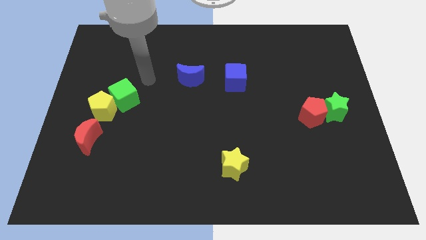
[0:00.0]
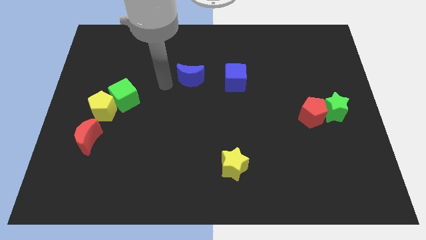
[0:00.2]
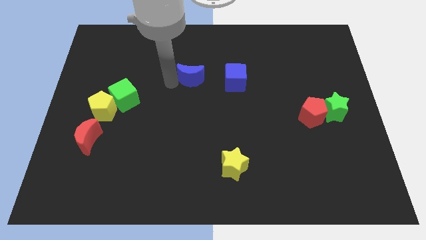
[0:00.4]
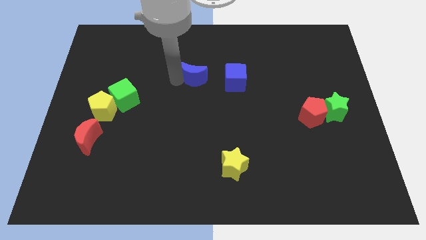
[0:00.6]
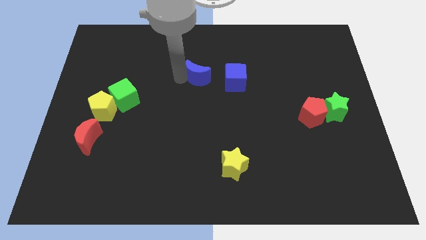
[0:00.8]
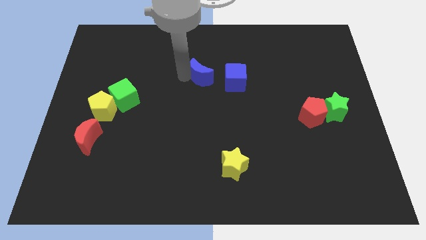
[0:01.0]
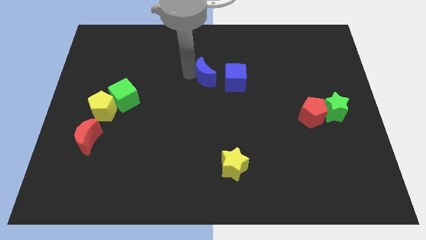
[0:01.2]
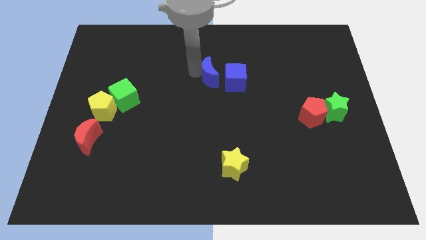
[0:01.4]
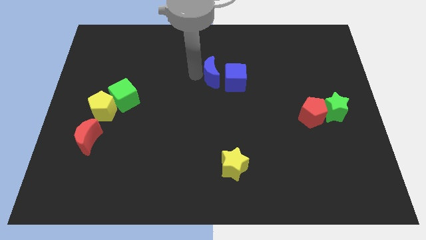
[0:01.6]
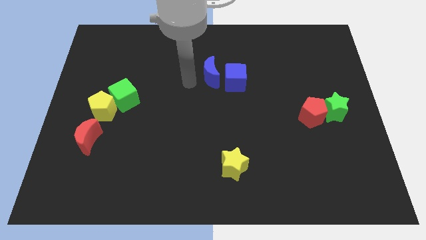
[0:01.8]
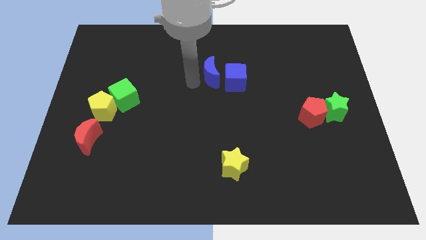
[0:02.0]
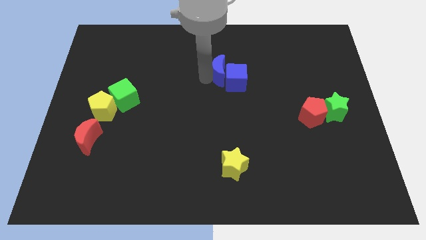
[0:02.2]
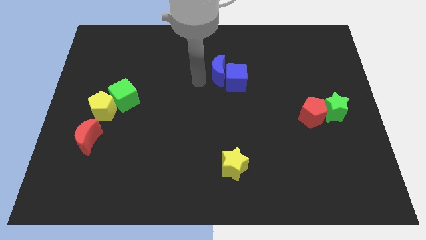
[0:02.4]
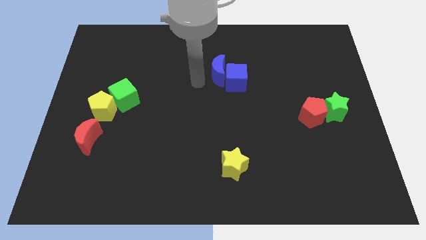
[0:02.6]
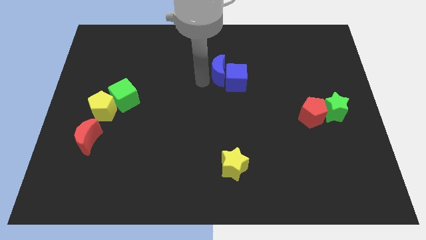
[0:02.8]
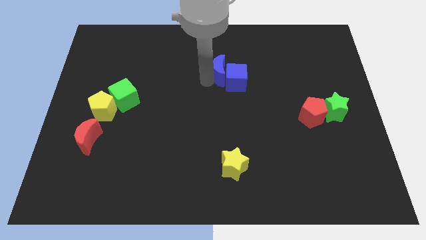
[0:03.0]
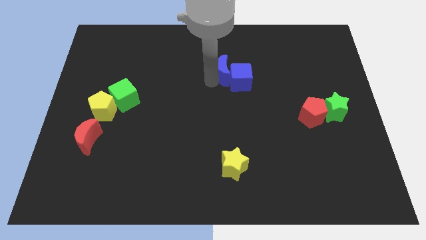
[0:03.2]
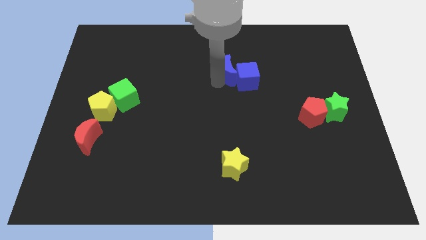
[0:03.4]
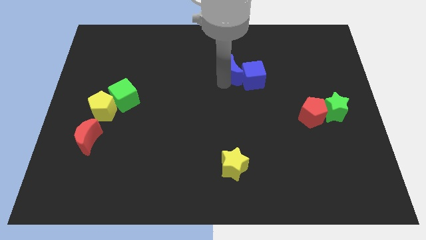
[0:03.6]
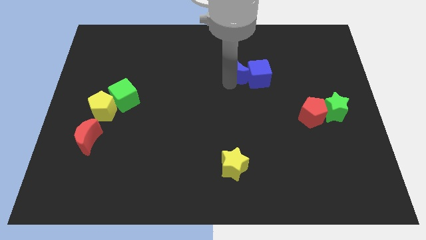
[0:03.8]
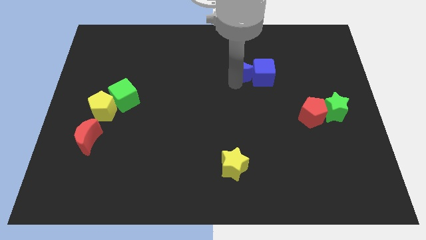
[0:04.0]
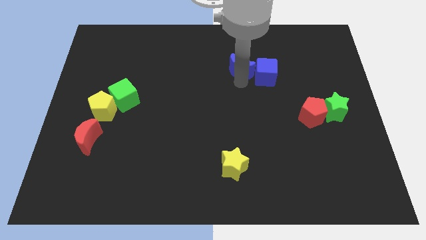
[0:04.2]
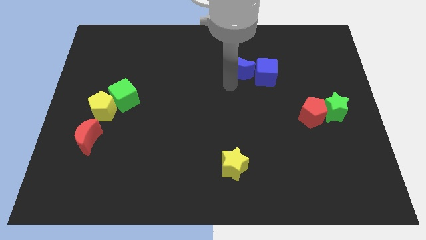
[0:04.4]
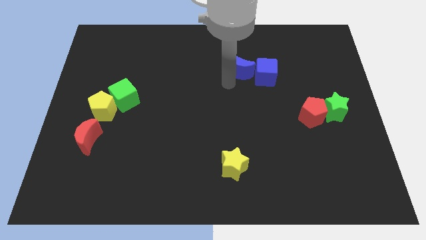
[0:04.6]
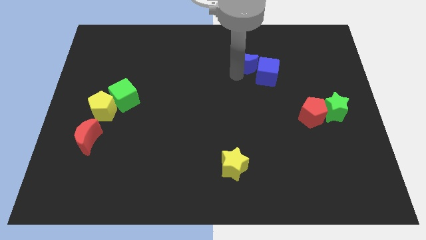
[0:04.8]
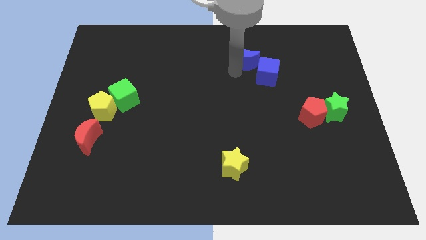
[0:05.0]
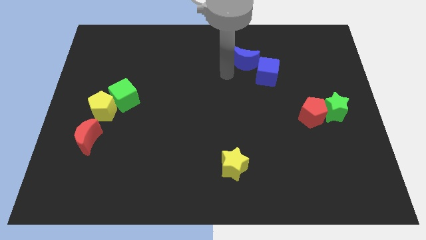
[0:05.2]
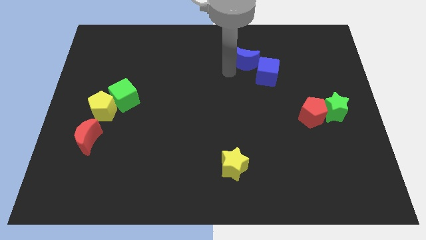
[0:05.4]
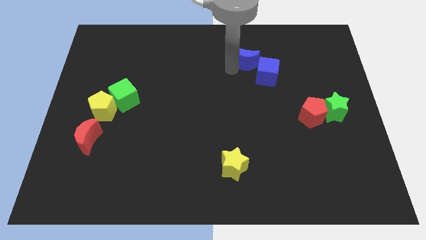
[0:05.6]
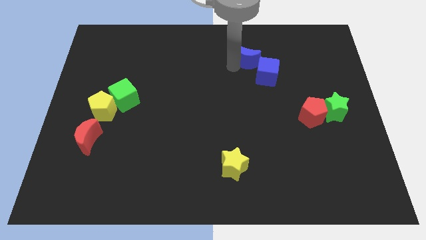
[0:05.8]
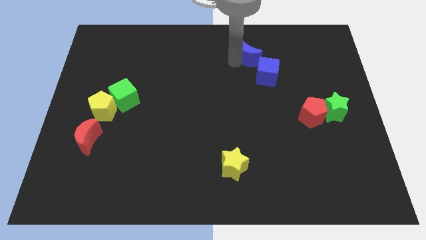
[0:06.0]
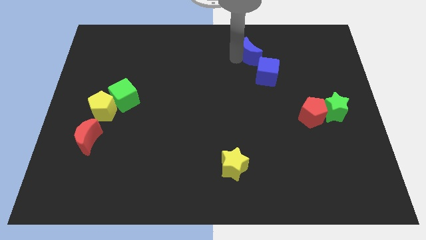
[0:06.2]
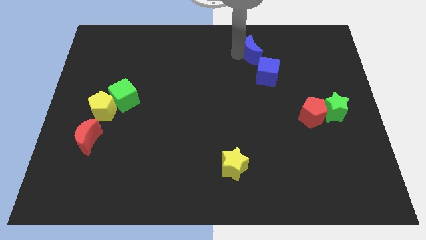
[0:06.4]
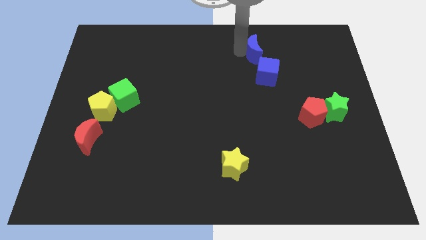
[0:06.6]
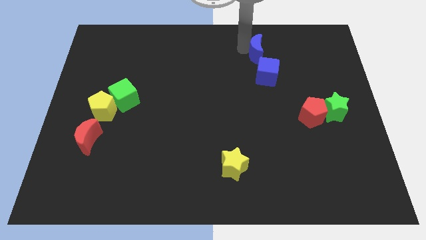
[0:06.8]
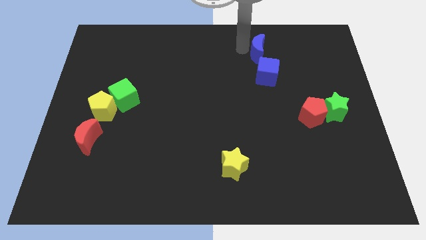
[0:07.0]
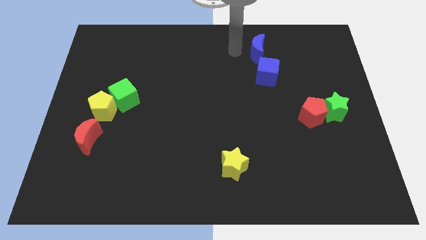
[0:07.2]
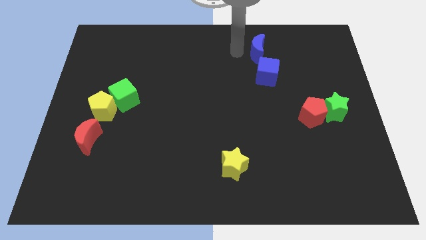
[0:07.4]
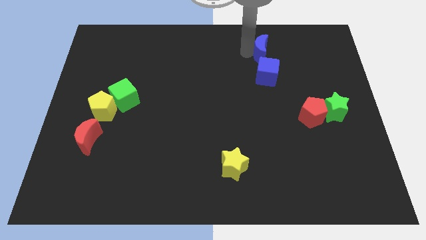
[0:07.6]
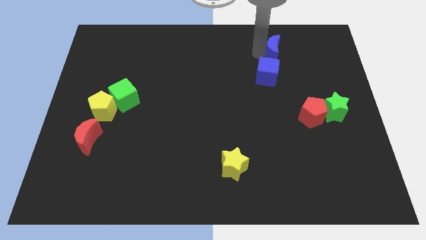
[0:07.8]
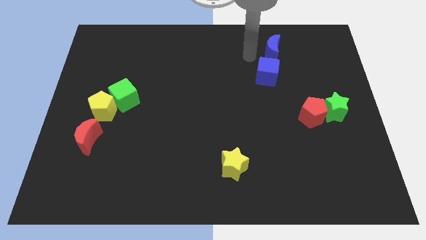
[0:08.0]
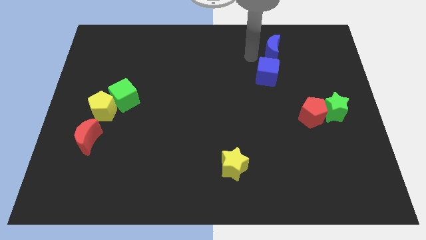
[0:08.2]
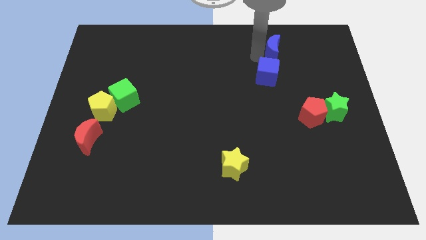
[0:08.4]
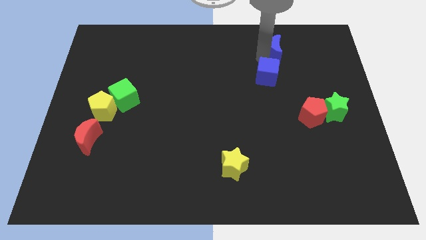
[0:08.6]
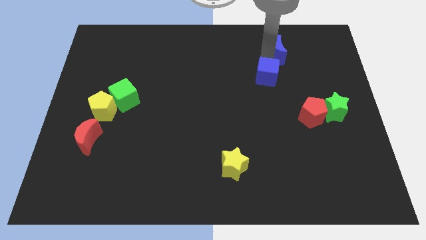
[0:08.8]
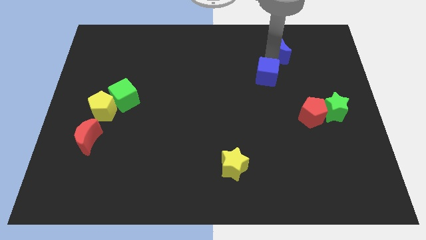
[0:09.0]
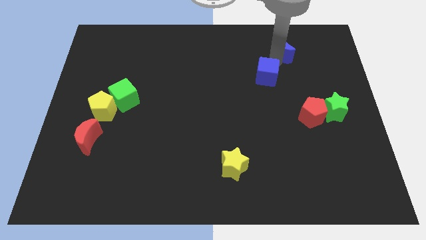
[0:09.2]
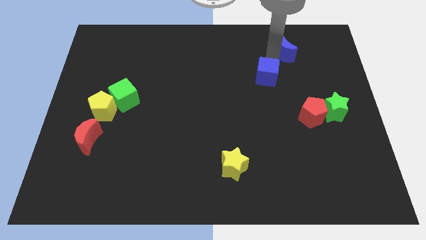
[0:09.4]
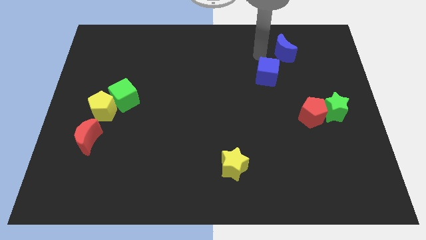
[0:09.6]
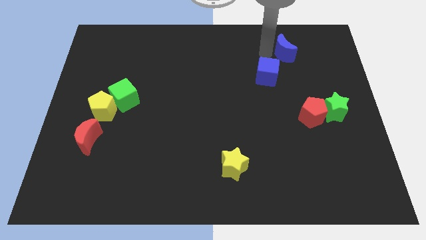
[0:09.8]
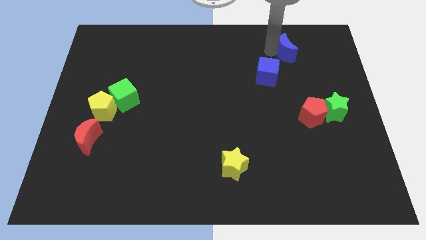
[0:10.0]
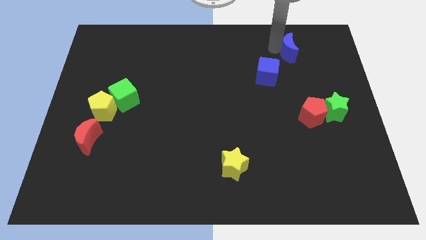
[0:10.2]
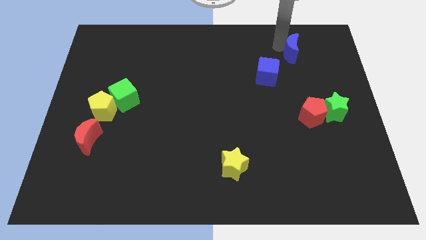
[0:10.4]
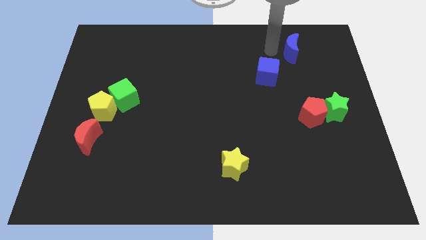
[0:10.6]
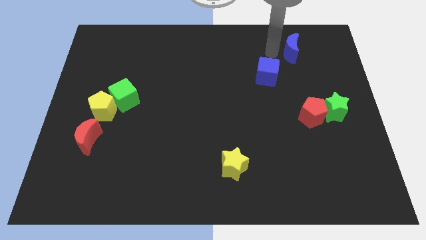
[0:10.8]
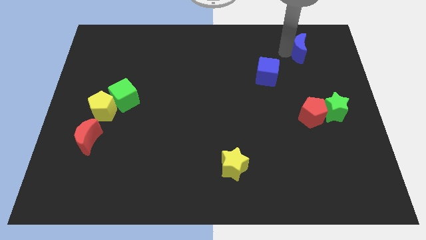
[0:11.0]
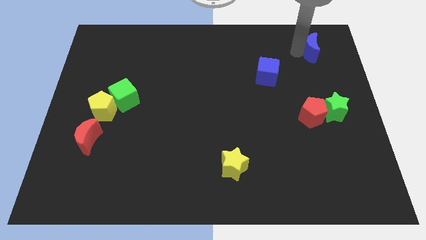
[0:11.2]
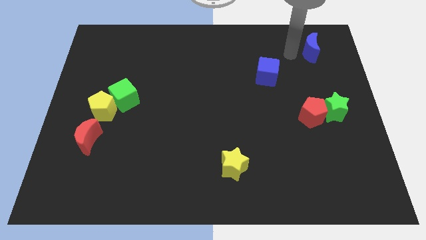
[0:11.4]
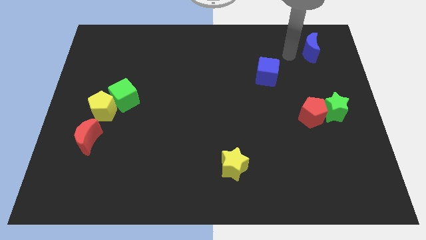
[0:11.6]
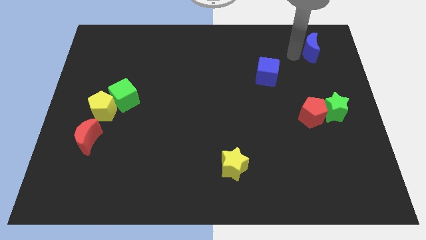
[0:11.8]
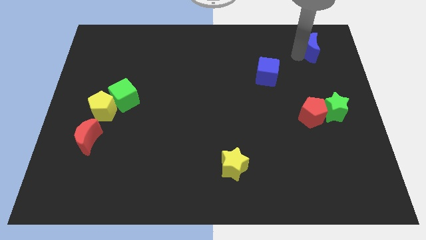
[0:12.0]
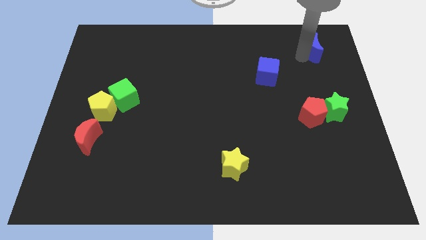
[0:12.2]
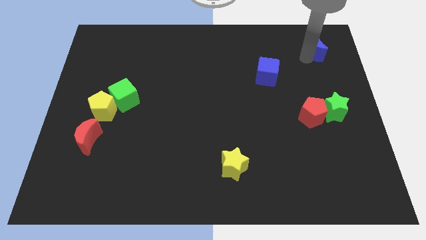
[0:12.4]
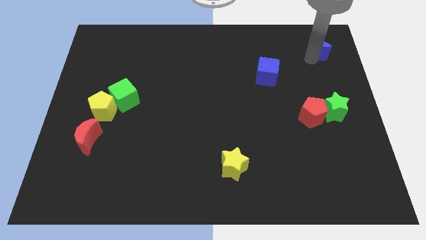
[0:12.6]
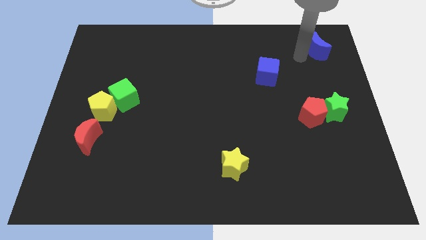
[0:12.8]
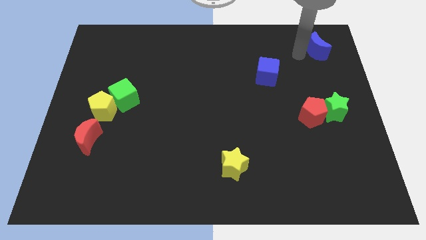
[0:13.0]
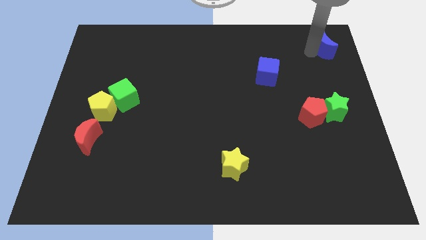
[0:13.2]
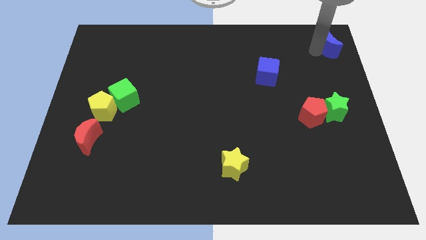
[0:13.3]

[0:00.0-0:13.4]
slide the blue moon to the upper right corner
